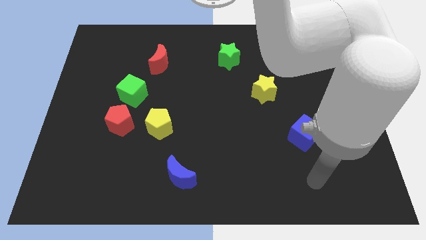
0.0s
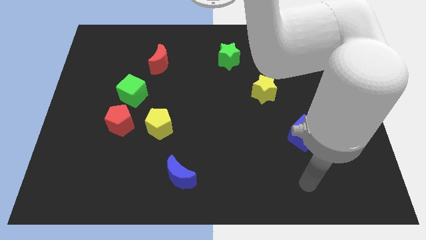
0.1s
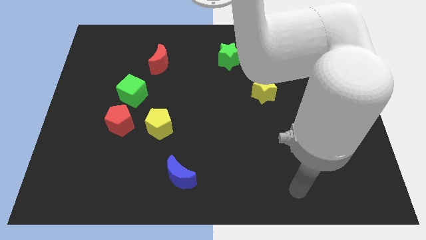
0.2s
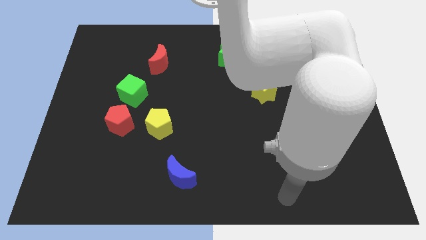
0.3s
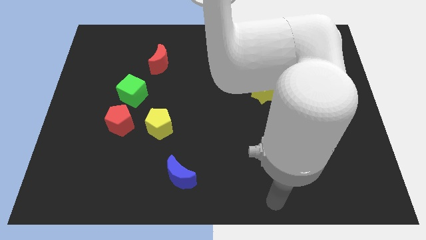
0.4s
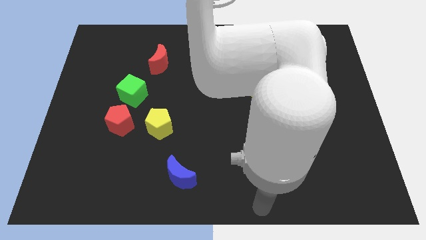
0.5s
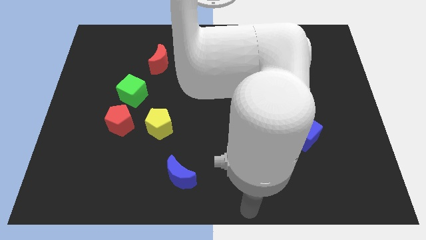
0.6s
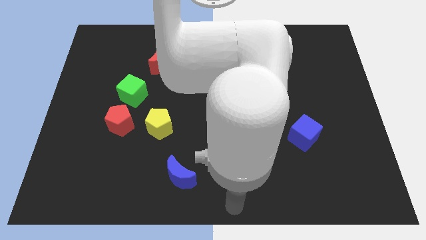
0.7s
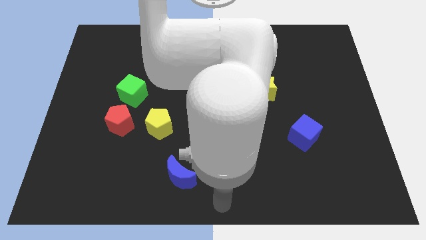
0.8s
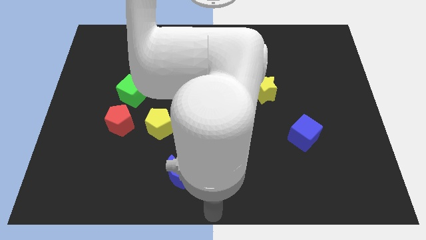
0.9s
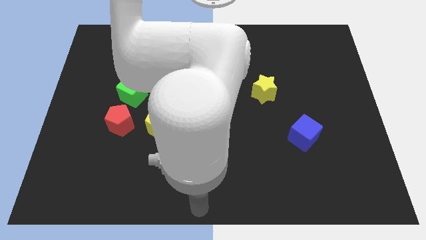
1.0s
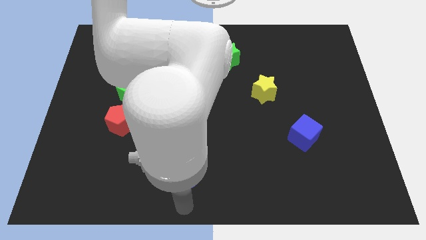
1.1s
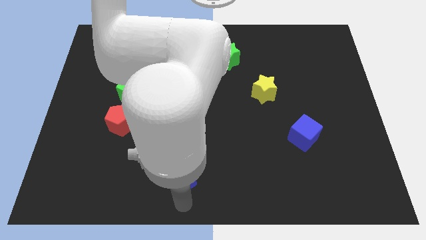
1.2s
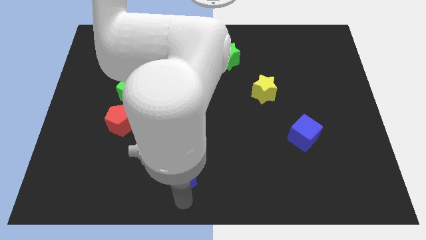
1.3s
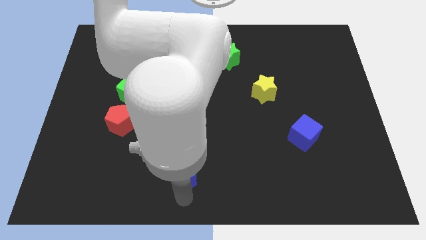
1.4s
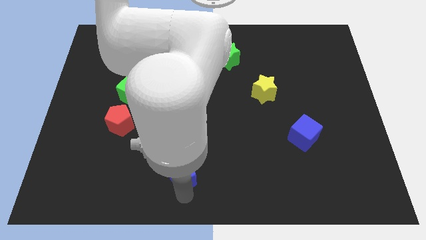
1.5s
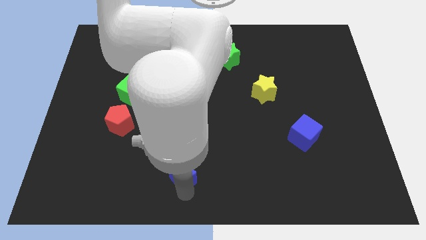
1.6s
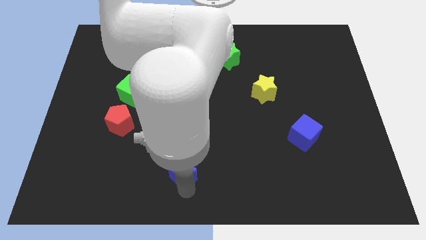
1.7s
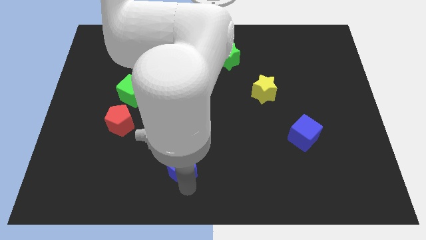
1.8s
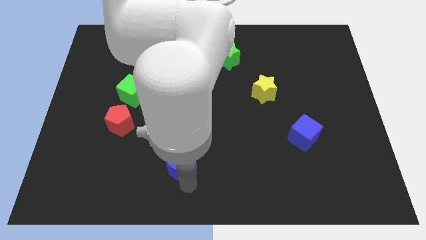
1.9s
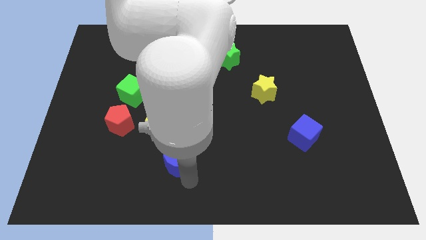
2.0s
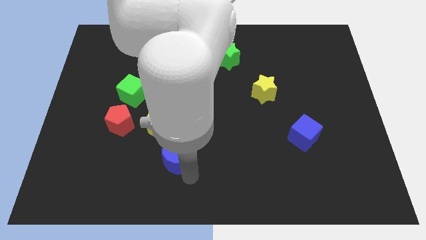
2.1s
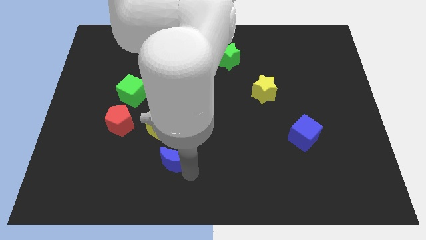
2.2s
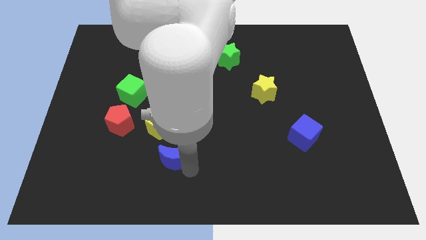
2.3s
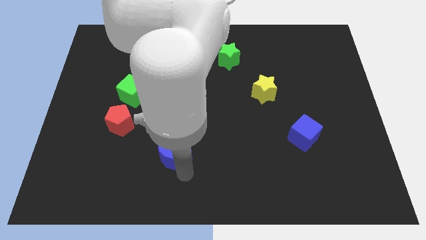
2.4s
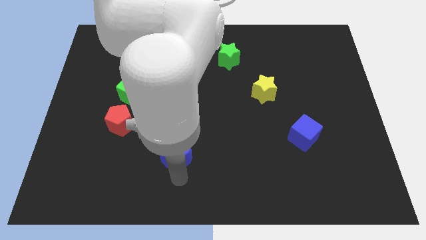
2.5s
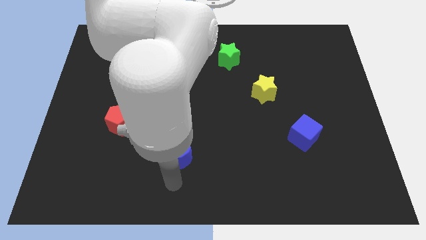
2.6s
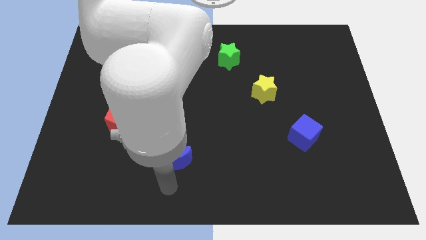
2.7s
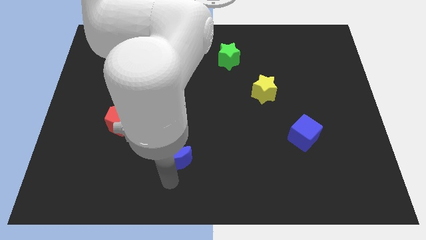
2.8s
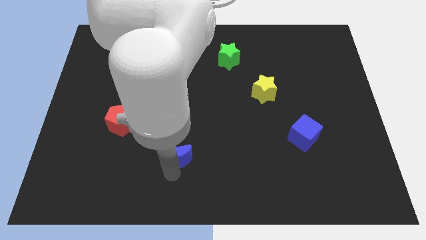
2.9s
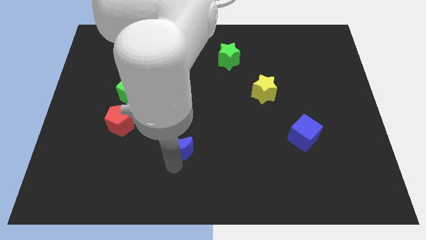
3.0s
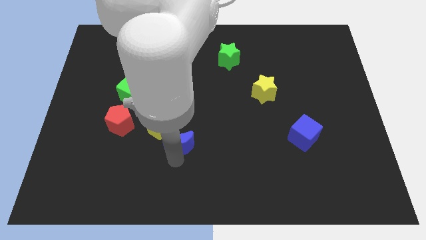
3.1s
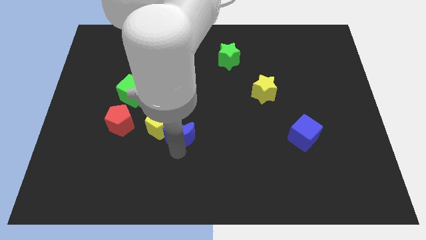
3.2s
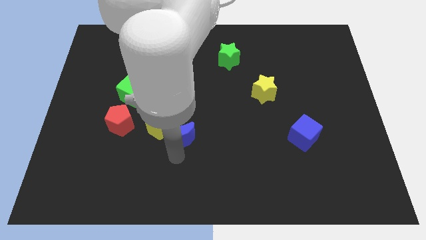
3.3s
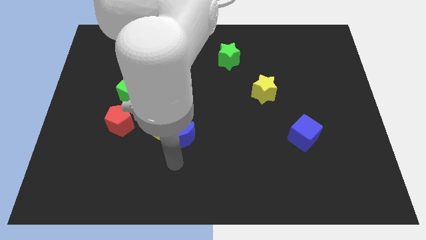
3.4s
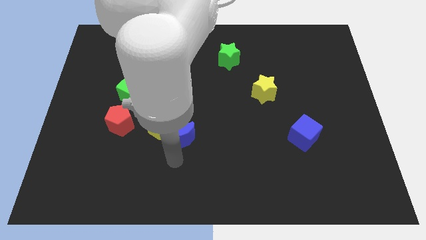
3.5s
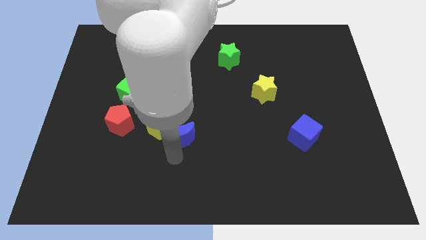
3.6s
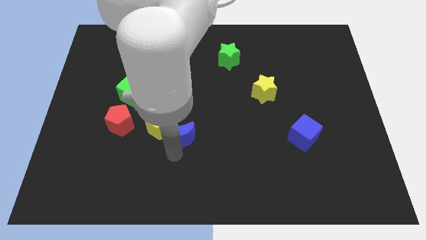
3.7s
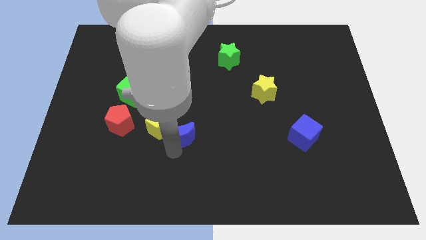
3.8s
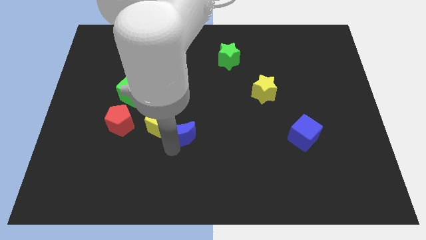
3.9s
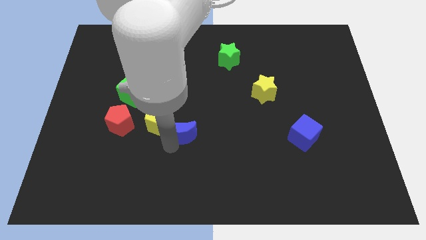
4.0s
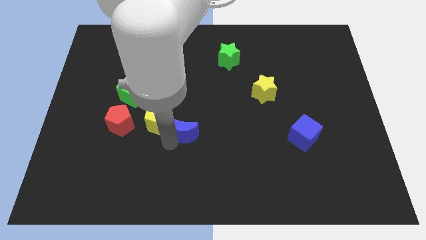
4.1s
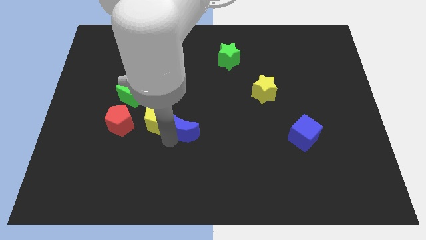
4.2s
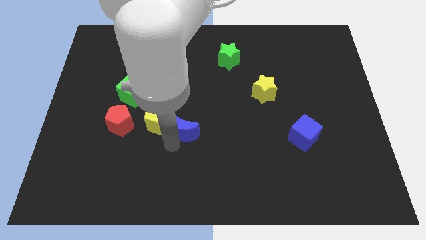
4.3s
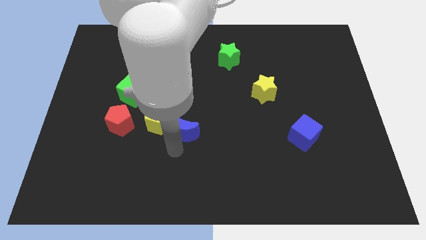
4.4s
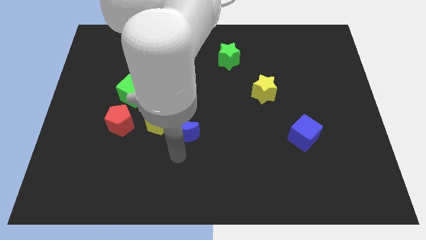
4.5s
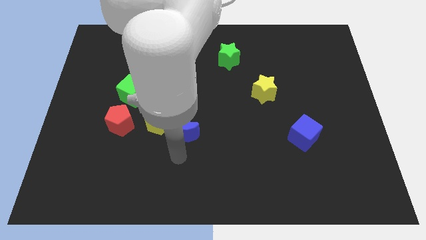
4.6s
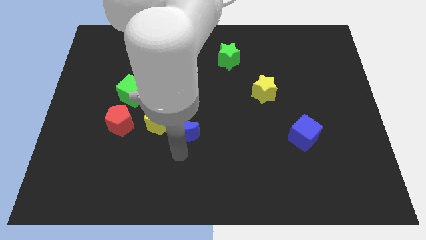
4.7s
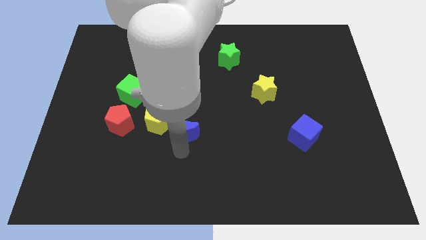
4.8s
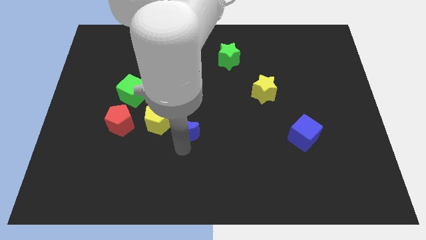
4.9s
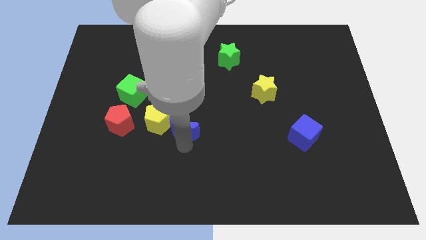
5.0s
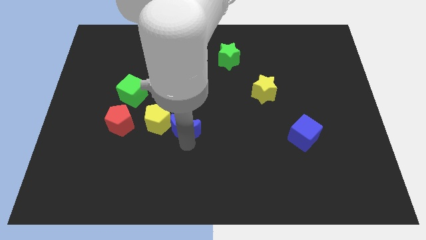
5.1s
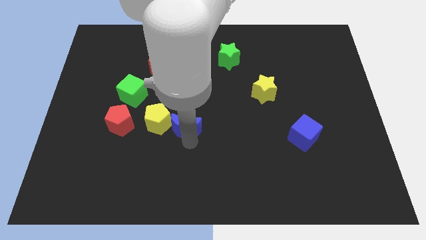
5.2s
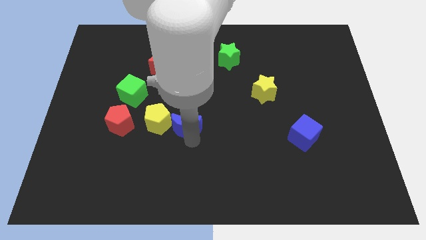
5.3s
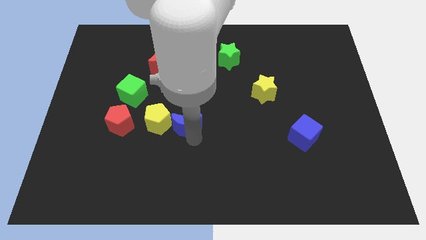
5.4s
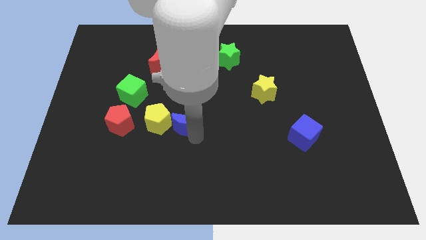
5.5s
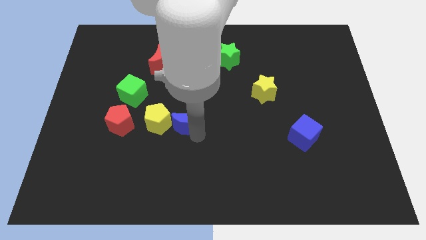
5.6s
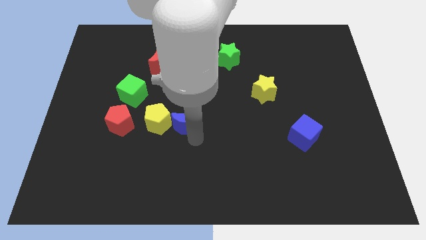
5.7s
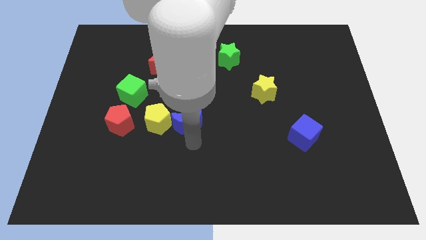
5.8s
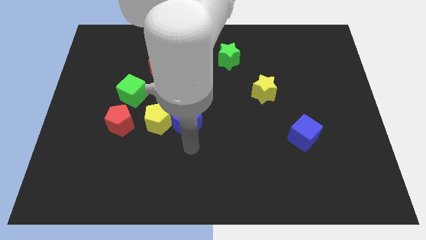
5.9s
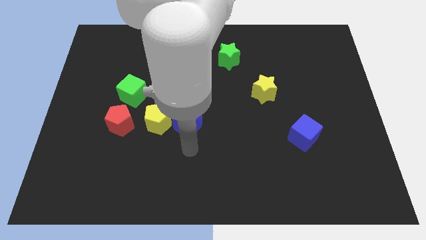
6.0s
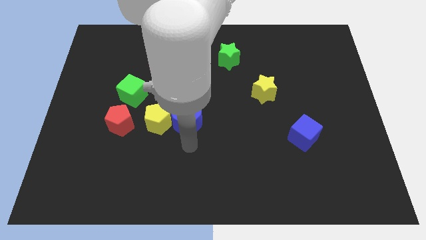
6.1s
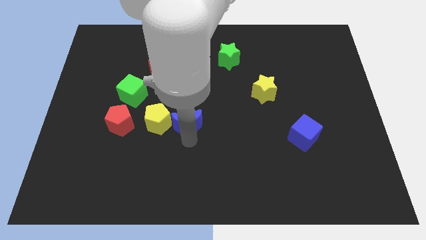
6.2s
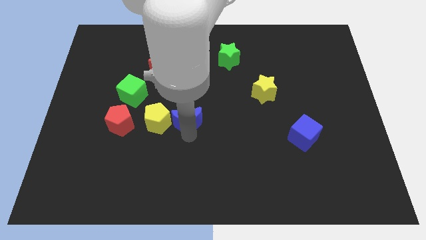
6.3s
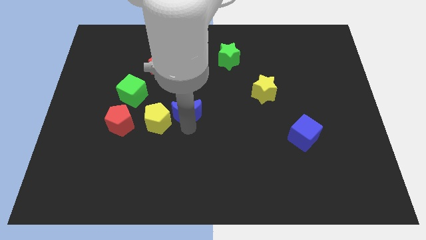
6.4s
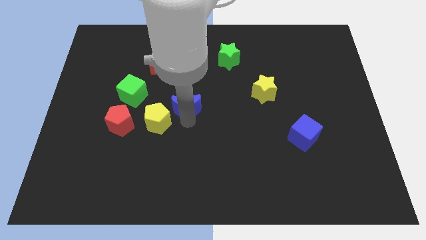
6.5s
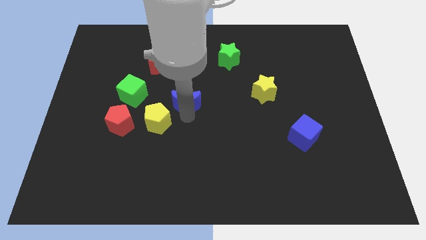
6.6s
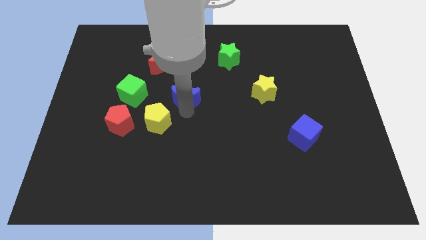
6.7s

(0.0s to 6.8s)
move the blue moon upwards

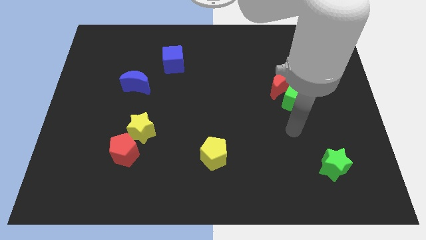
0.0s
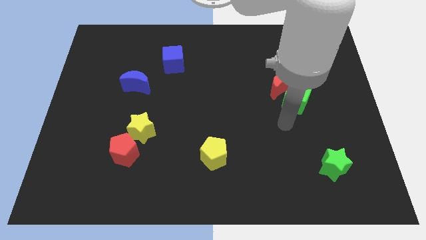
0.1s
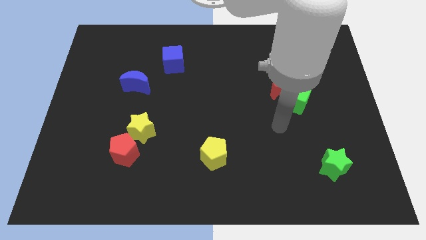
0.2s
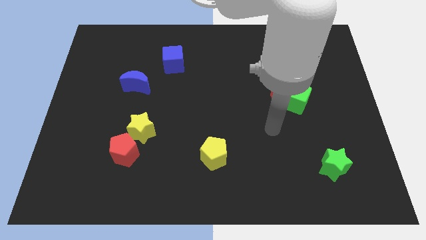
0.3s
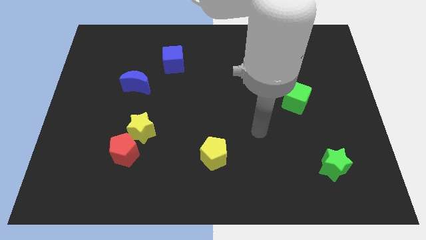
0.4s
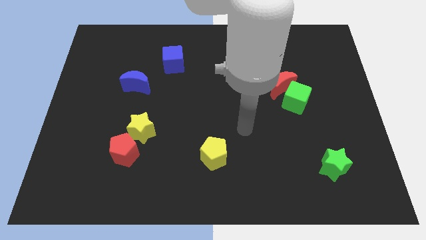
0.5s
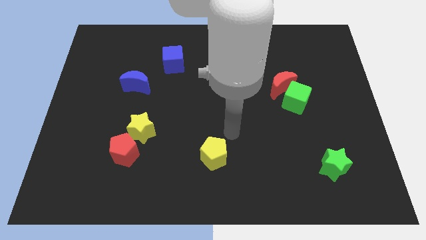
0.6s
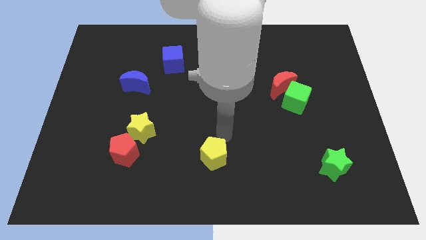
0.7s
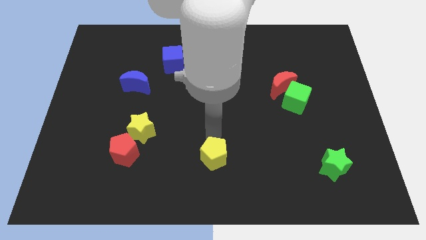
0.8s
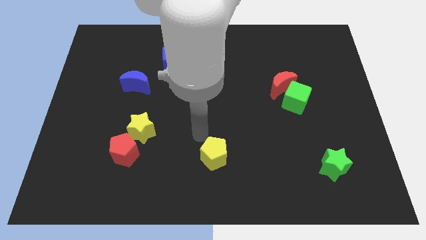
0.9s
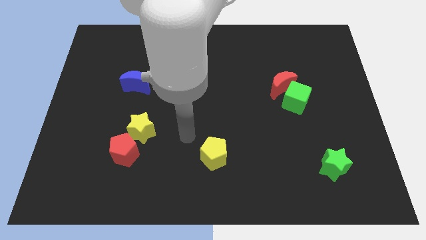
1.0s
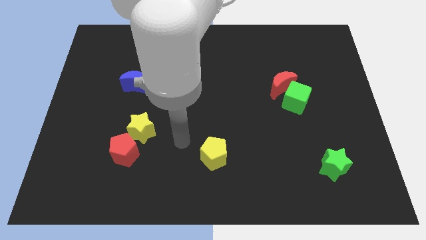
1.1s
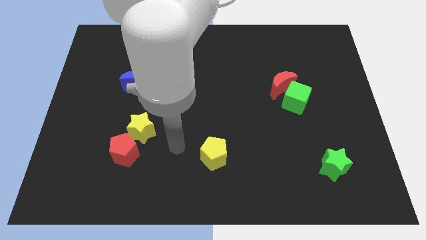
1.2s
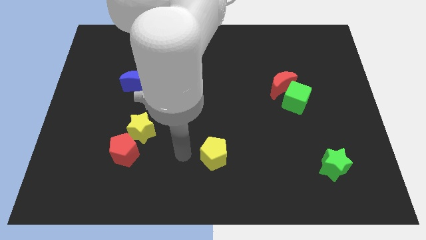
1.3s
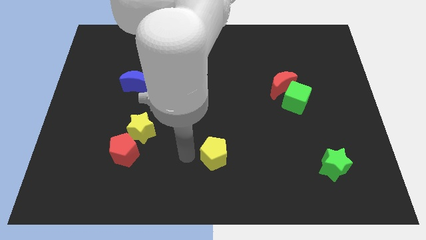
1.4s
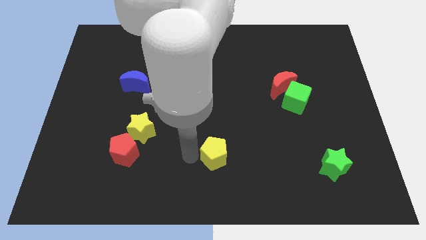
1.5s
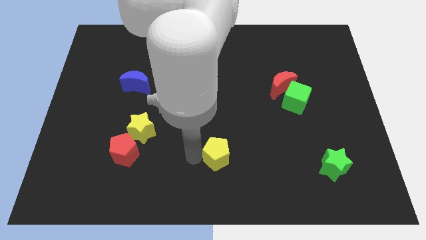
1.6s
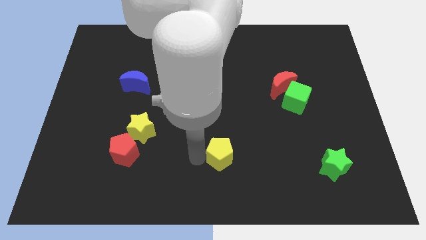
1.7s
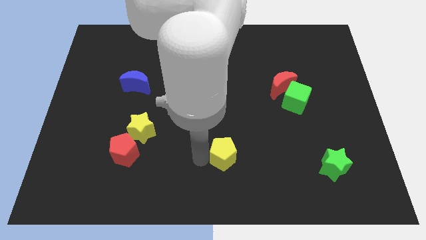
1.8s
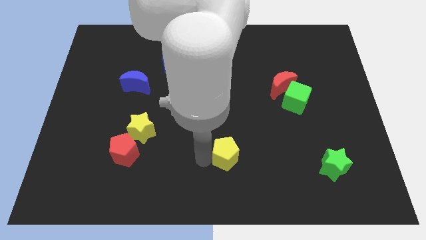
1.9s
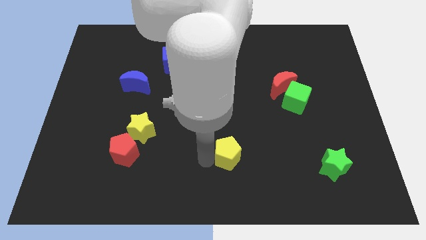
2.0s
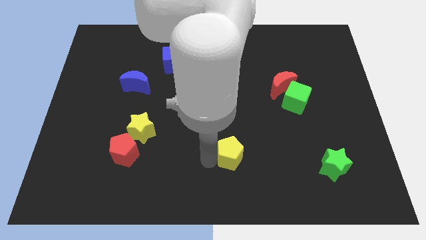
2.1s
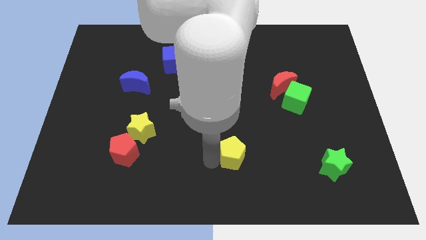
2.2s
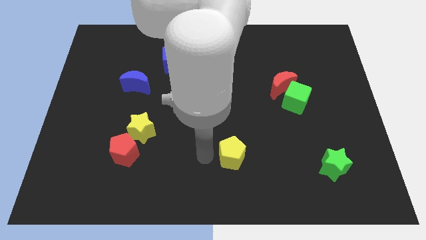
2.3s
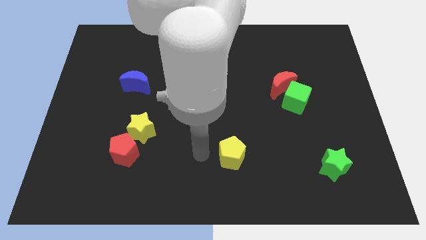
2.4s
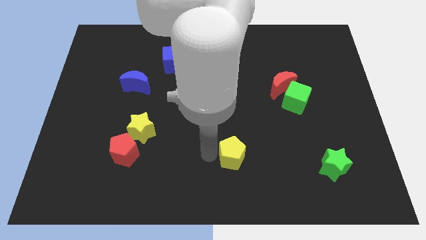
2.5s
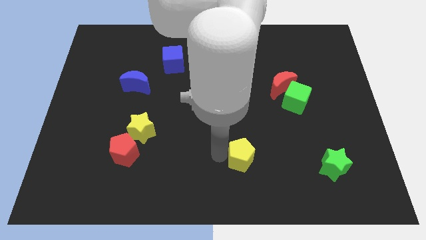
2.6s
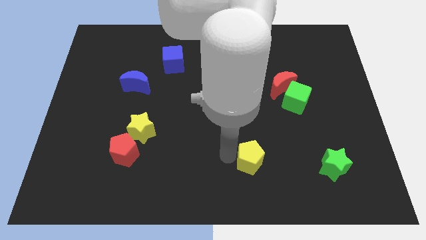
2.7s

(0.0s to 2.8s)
slide the yellow pentagon a little bit to the right
